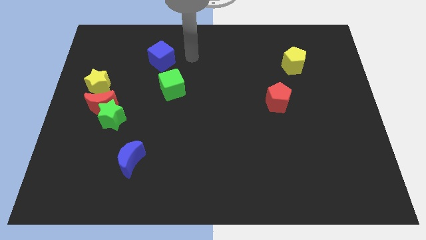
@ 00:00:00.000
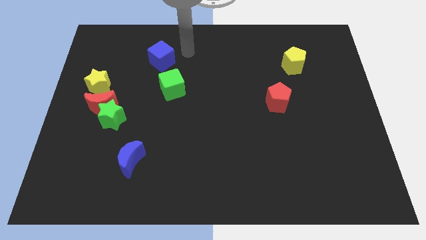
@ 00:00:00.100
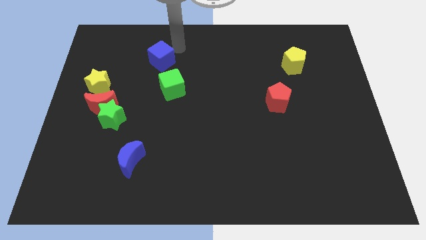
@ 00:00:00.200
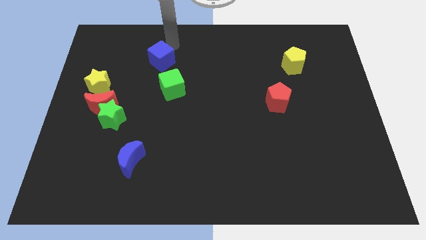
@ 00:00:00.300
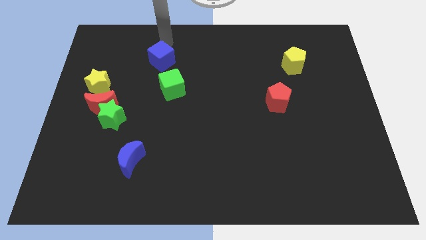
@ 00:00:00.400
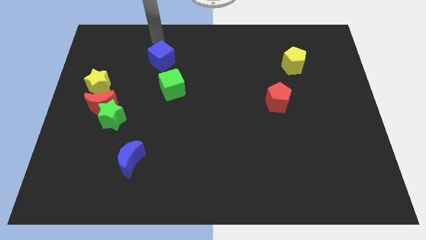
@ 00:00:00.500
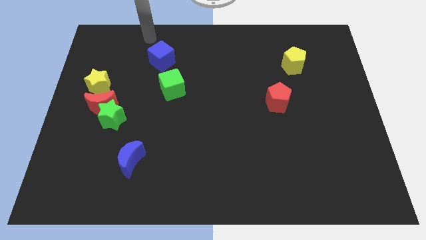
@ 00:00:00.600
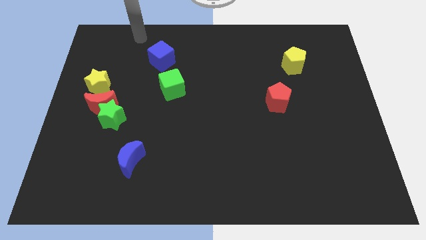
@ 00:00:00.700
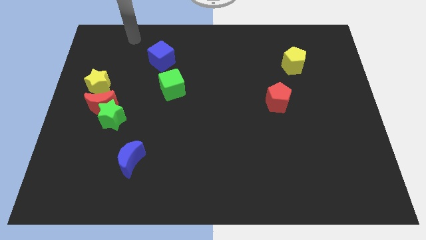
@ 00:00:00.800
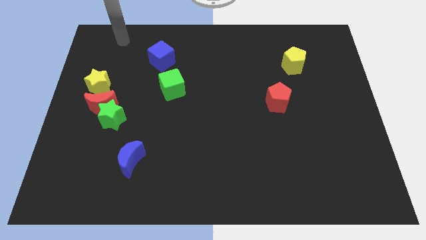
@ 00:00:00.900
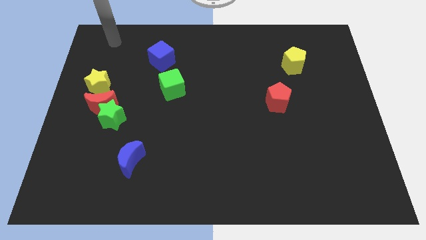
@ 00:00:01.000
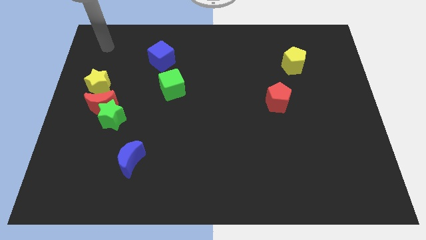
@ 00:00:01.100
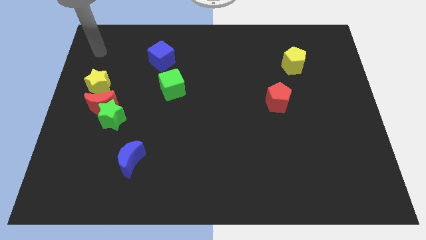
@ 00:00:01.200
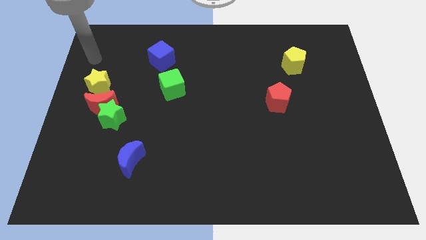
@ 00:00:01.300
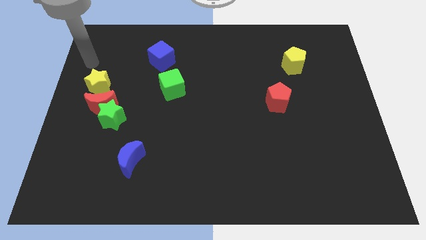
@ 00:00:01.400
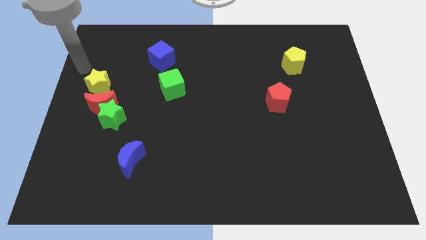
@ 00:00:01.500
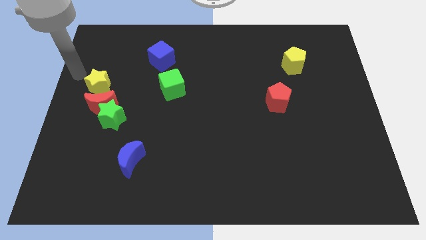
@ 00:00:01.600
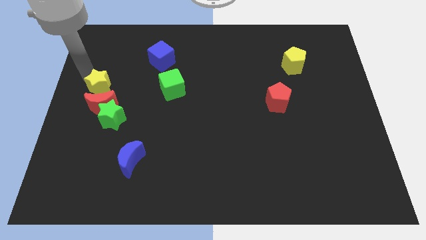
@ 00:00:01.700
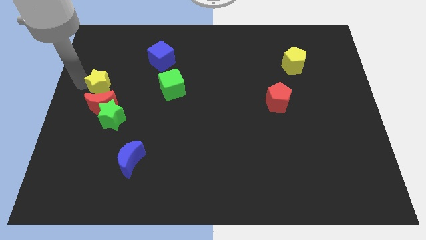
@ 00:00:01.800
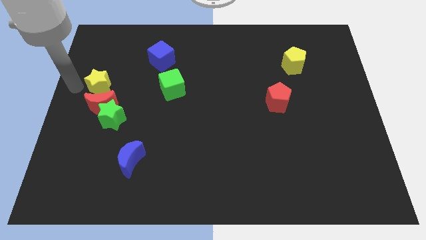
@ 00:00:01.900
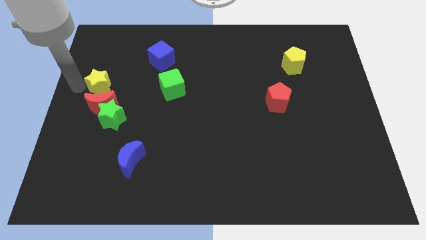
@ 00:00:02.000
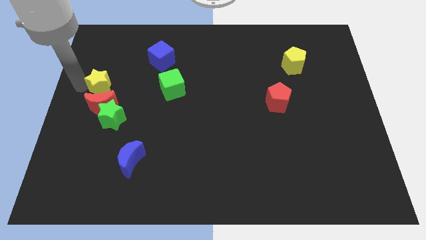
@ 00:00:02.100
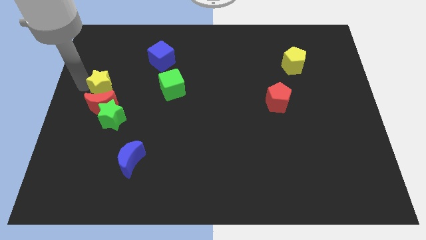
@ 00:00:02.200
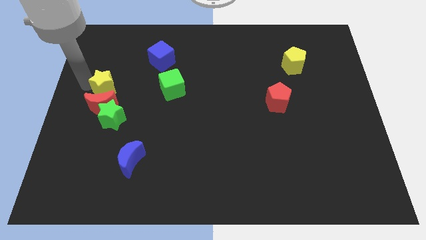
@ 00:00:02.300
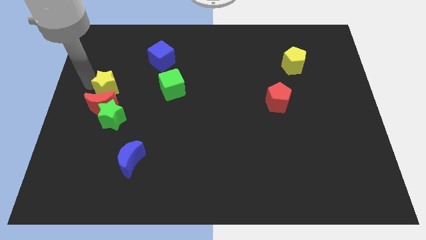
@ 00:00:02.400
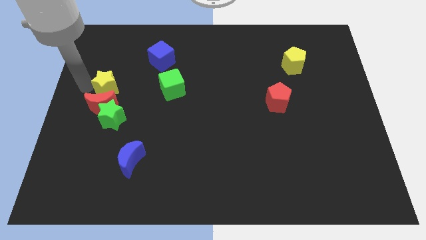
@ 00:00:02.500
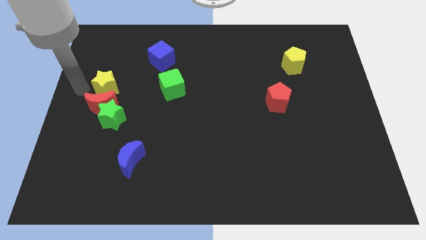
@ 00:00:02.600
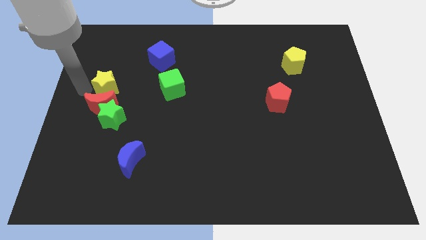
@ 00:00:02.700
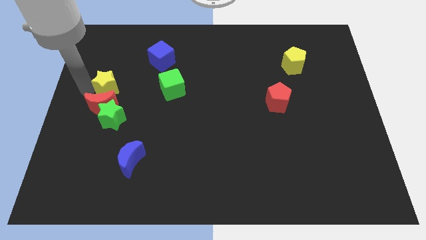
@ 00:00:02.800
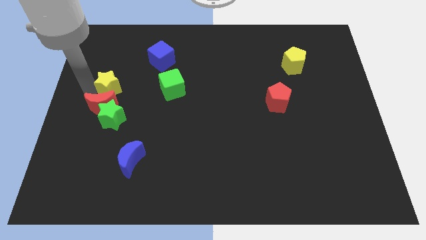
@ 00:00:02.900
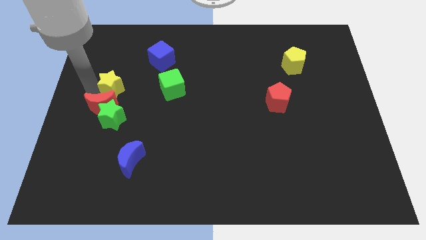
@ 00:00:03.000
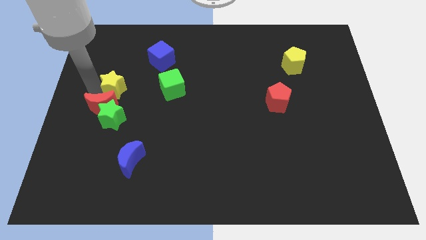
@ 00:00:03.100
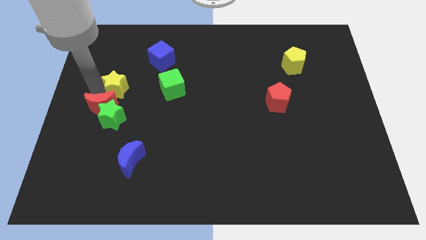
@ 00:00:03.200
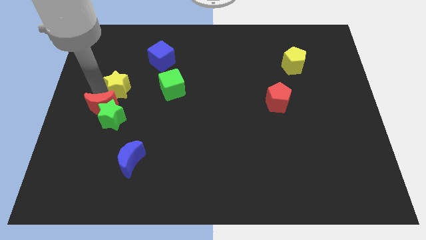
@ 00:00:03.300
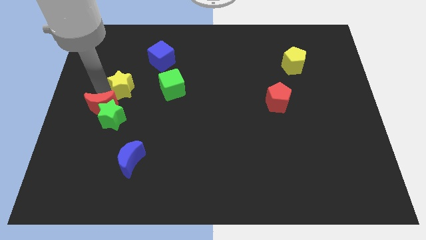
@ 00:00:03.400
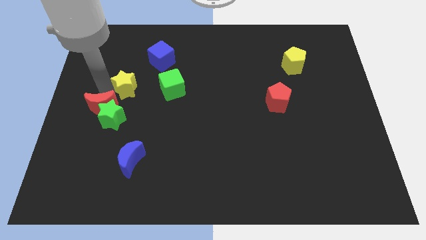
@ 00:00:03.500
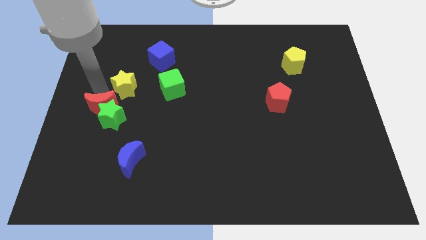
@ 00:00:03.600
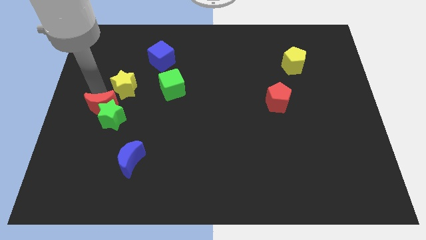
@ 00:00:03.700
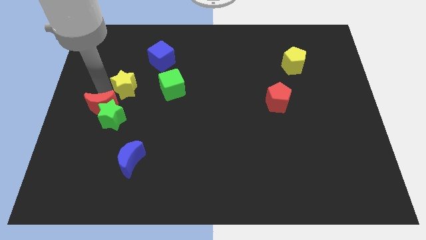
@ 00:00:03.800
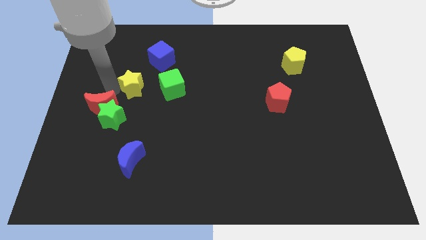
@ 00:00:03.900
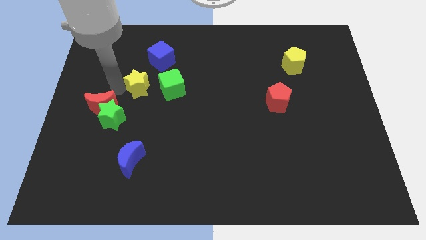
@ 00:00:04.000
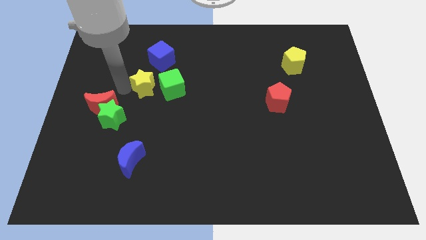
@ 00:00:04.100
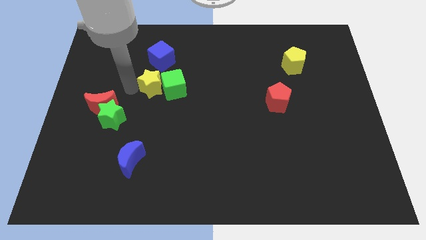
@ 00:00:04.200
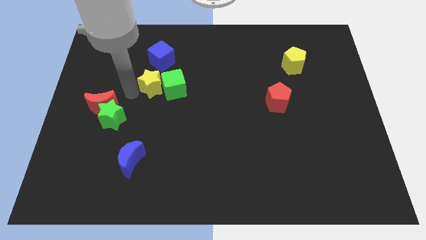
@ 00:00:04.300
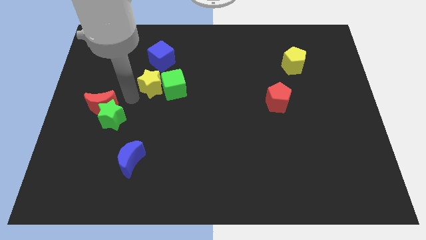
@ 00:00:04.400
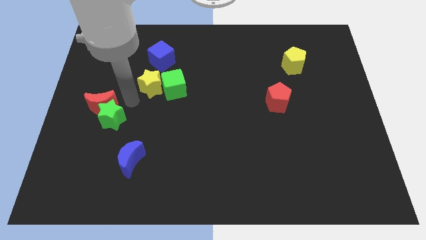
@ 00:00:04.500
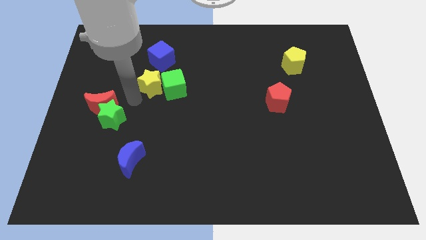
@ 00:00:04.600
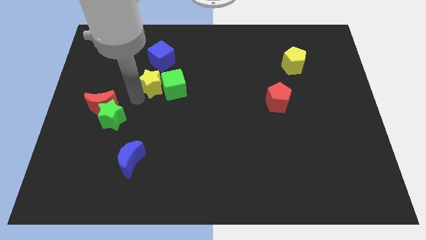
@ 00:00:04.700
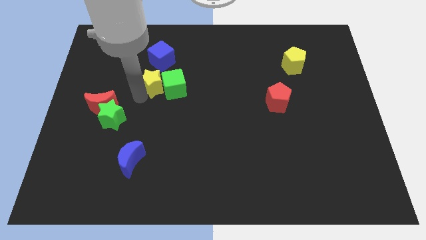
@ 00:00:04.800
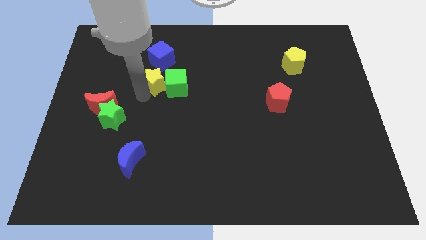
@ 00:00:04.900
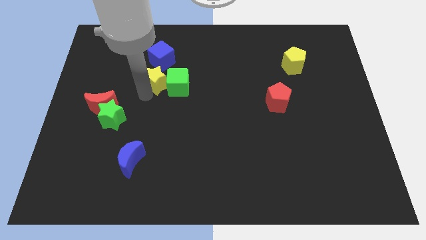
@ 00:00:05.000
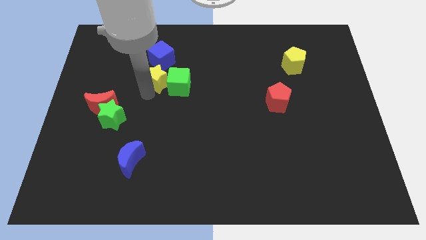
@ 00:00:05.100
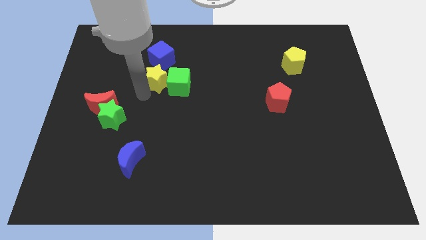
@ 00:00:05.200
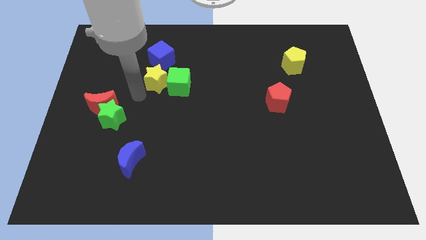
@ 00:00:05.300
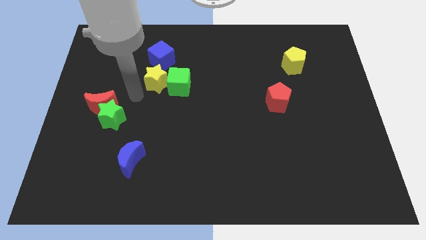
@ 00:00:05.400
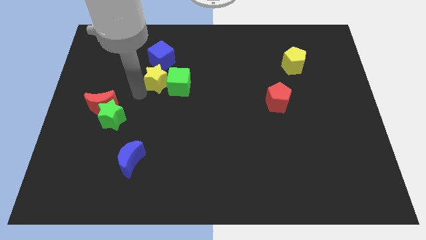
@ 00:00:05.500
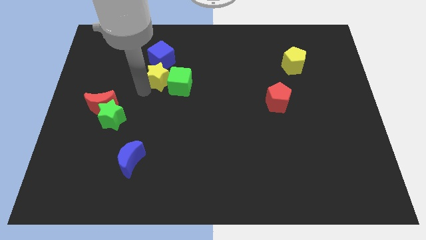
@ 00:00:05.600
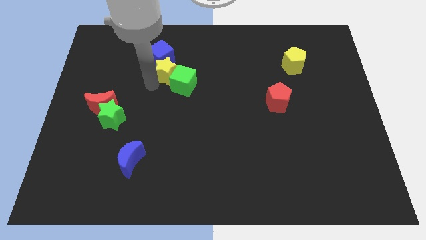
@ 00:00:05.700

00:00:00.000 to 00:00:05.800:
push the yellow star to the top side of the green cube

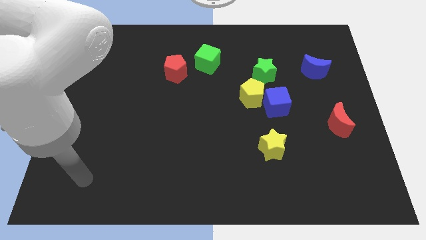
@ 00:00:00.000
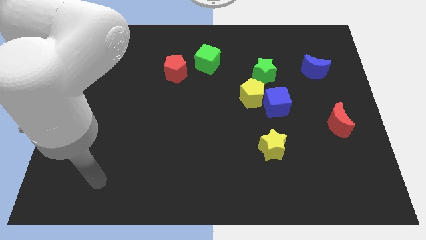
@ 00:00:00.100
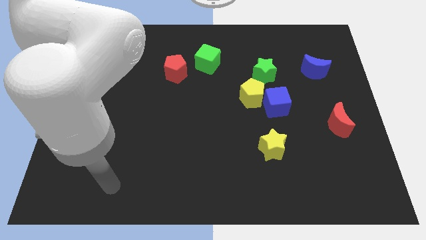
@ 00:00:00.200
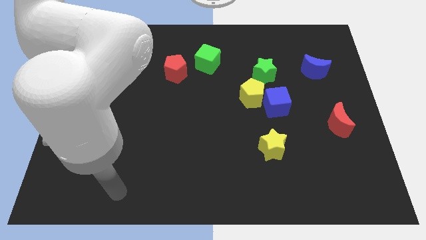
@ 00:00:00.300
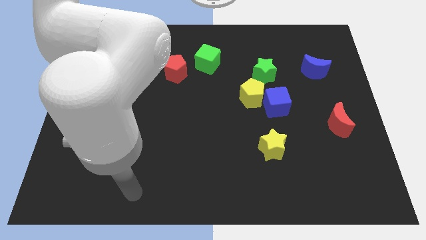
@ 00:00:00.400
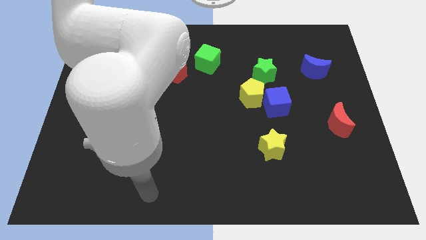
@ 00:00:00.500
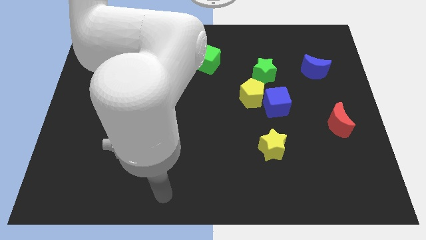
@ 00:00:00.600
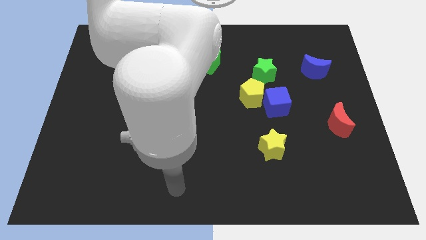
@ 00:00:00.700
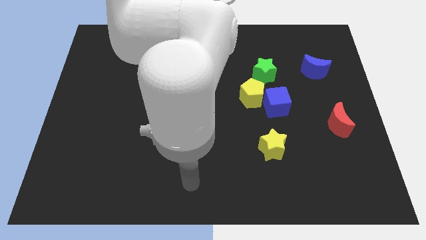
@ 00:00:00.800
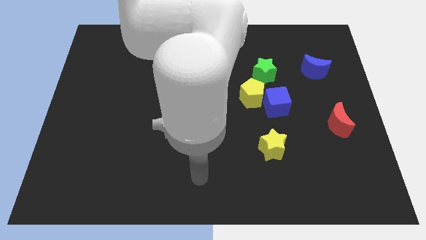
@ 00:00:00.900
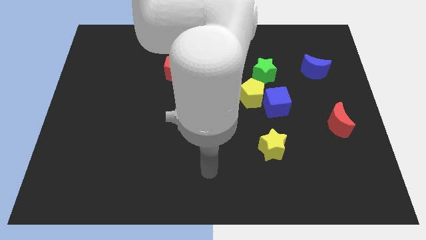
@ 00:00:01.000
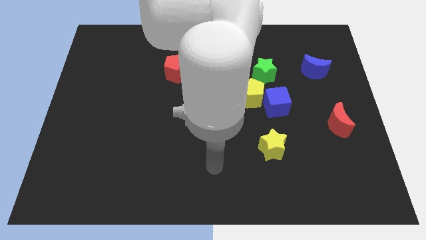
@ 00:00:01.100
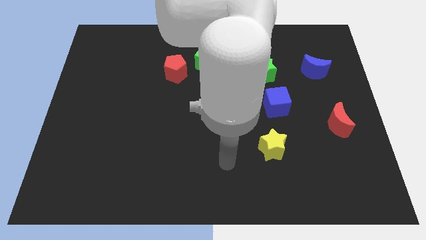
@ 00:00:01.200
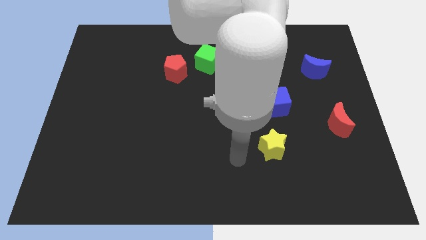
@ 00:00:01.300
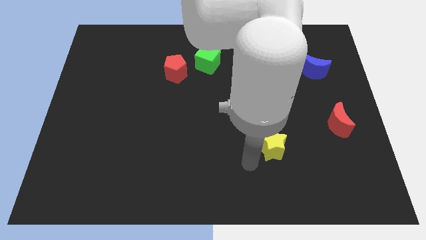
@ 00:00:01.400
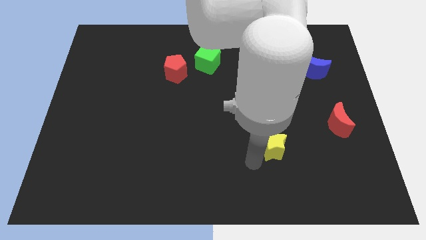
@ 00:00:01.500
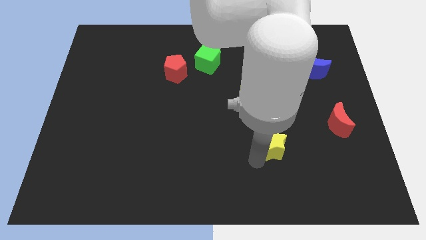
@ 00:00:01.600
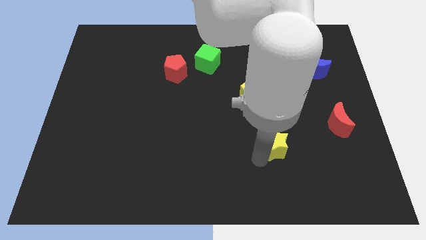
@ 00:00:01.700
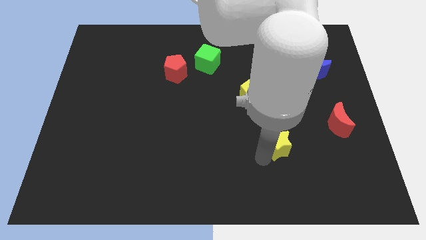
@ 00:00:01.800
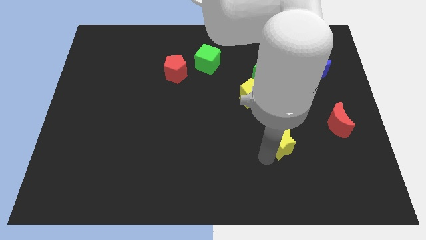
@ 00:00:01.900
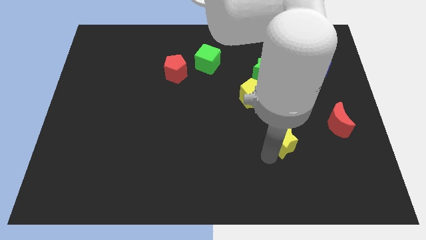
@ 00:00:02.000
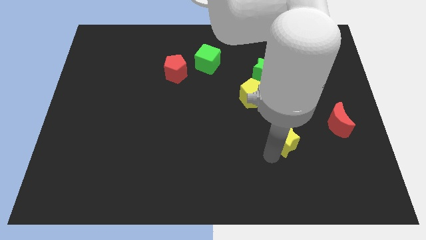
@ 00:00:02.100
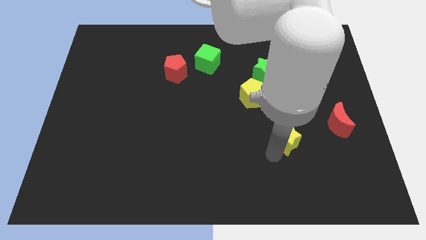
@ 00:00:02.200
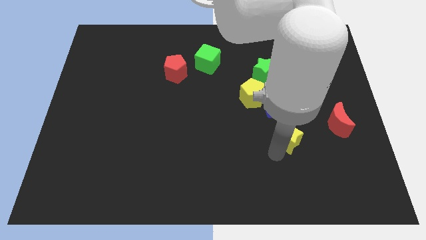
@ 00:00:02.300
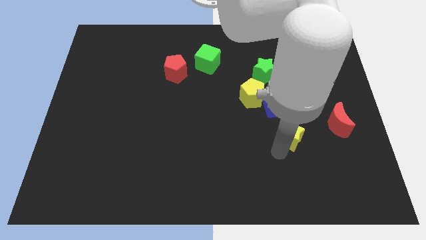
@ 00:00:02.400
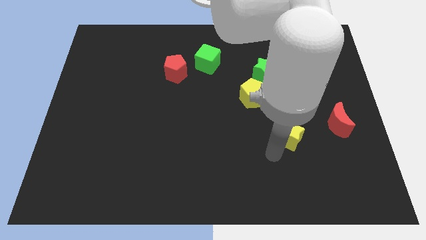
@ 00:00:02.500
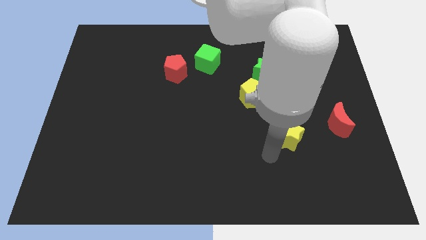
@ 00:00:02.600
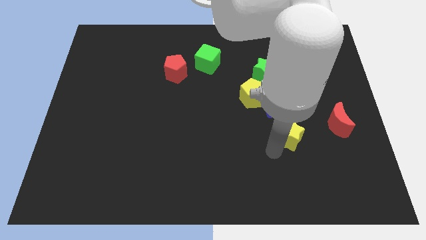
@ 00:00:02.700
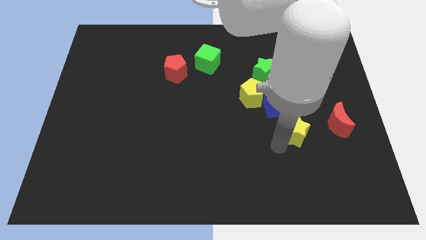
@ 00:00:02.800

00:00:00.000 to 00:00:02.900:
slide the yellow star to the bottom right side of the blue cube
